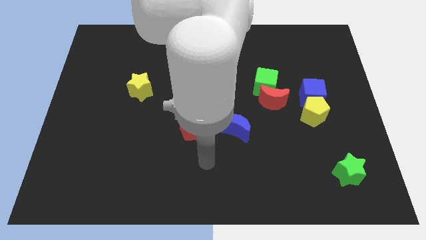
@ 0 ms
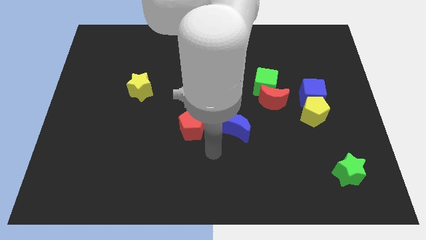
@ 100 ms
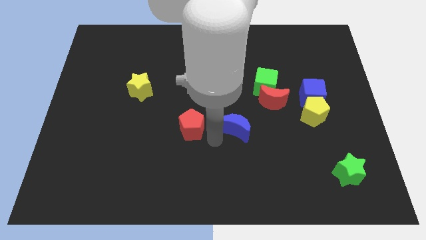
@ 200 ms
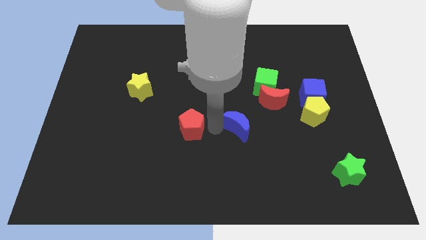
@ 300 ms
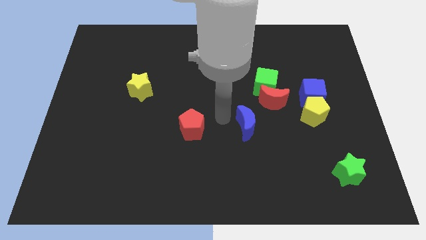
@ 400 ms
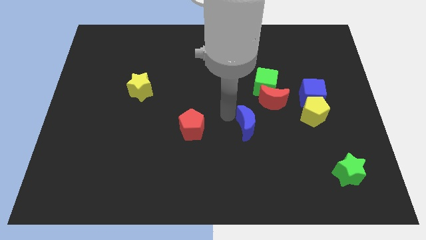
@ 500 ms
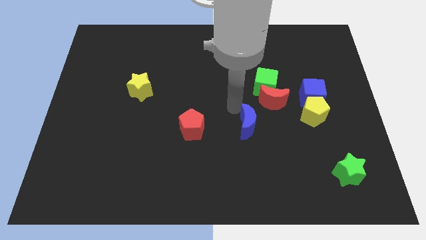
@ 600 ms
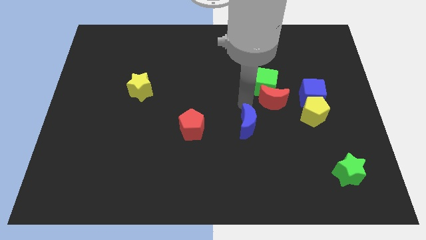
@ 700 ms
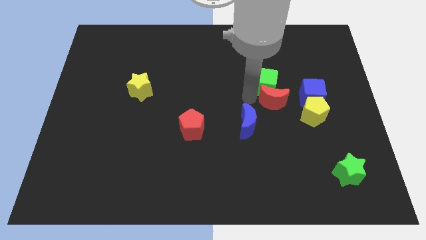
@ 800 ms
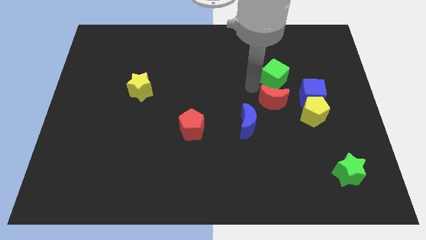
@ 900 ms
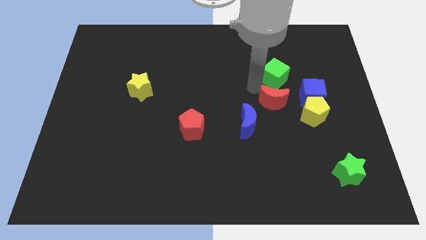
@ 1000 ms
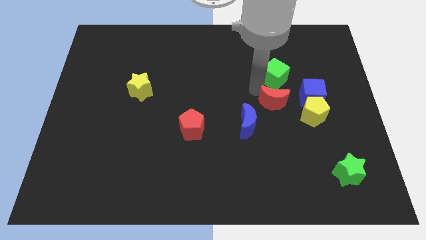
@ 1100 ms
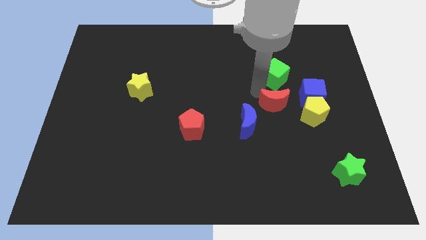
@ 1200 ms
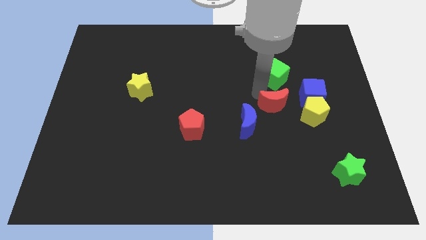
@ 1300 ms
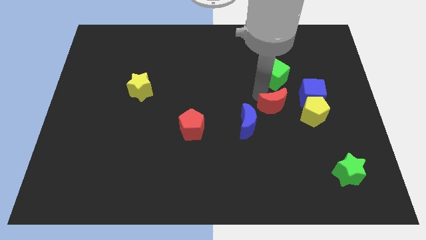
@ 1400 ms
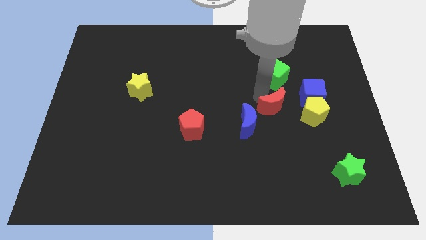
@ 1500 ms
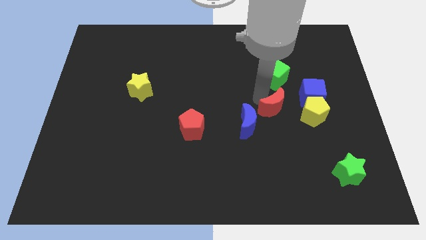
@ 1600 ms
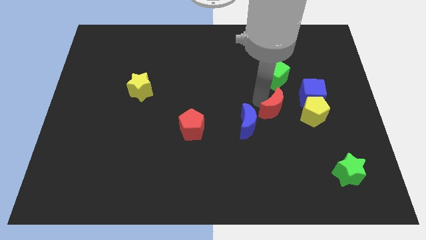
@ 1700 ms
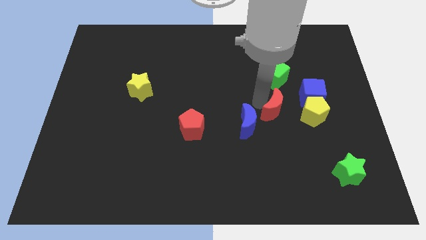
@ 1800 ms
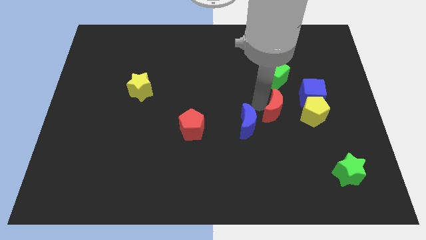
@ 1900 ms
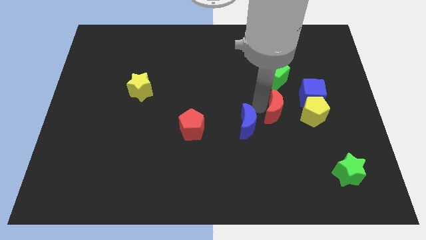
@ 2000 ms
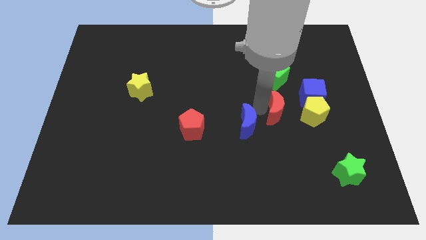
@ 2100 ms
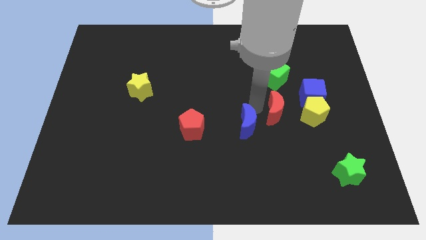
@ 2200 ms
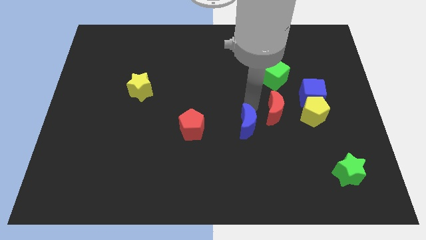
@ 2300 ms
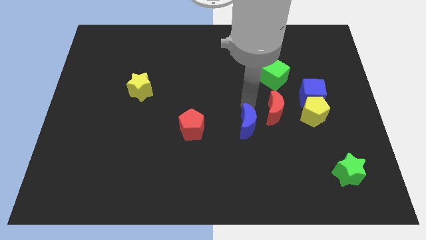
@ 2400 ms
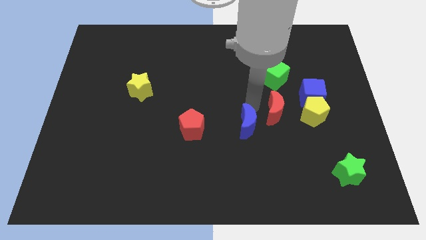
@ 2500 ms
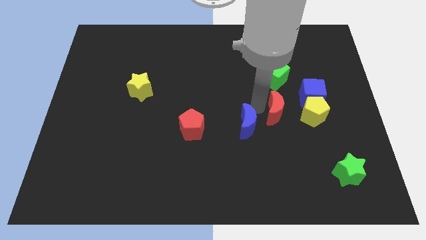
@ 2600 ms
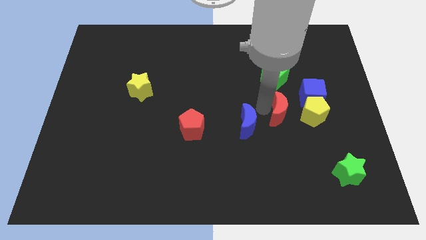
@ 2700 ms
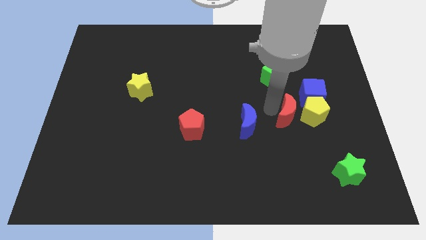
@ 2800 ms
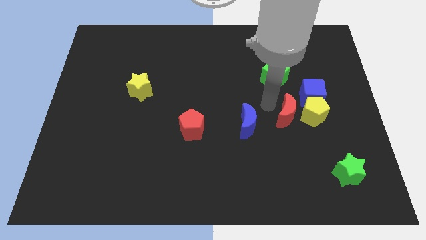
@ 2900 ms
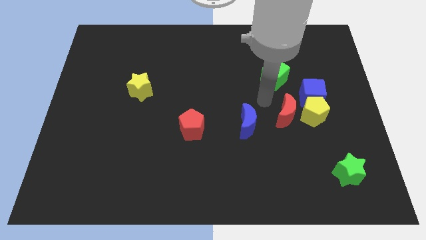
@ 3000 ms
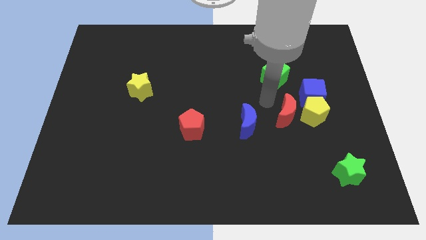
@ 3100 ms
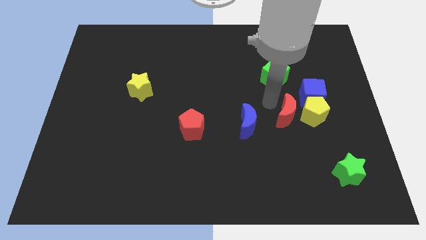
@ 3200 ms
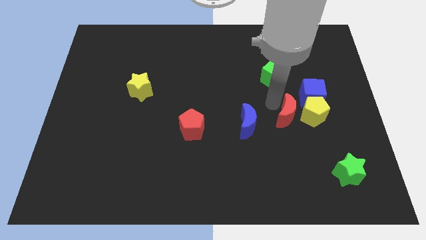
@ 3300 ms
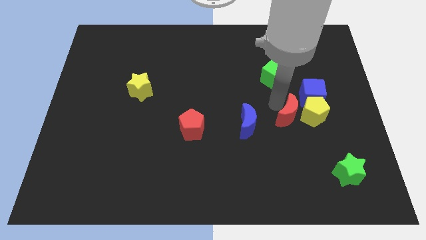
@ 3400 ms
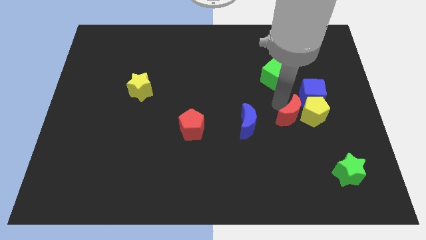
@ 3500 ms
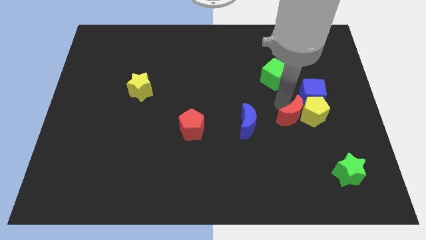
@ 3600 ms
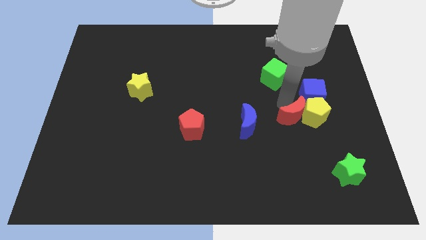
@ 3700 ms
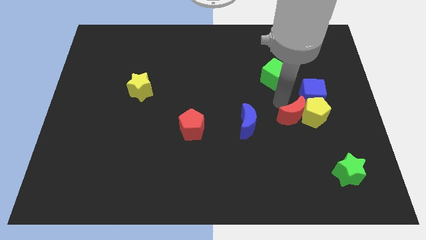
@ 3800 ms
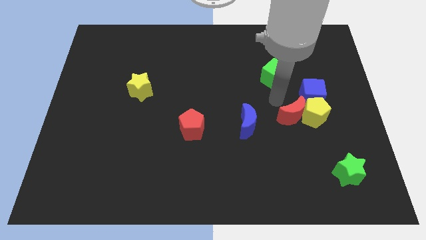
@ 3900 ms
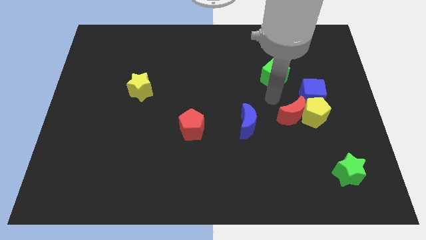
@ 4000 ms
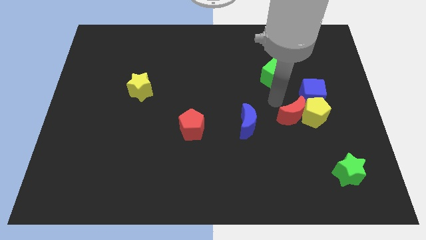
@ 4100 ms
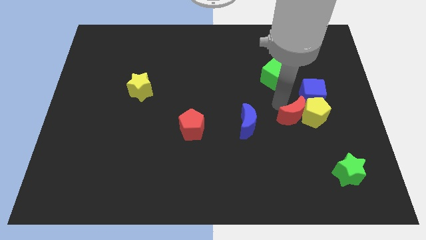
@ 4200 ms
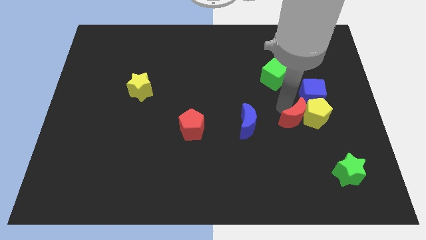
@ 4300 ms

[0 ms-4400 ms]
slightly move the red moon down and then to the right

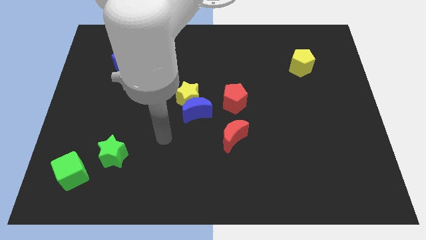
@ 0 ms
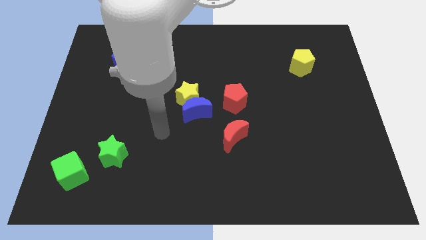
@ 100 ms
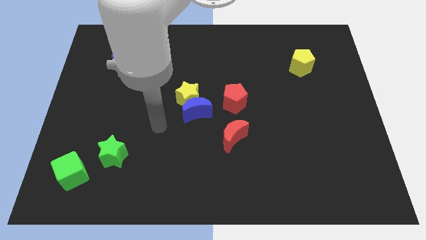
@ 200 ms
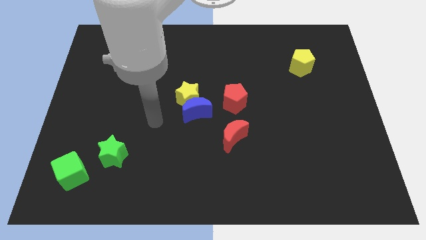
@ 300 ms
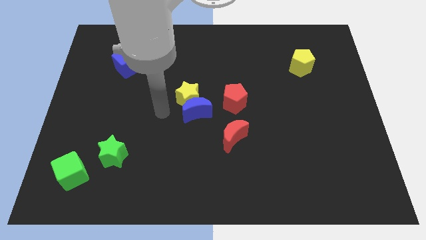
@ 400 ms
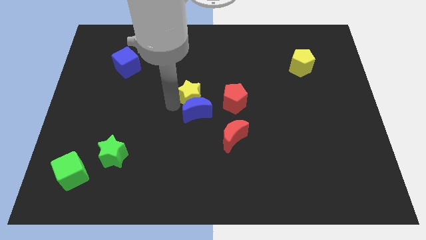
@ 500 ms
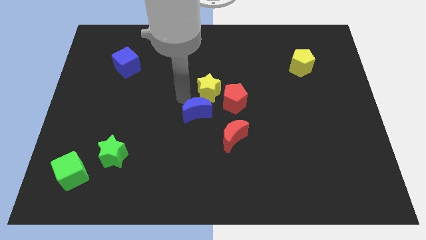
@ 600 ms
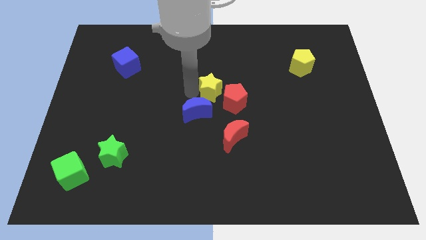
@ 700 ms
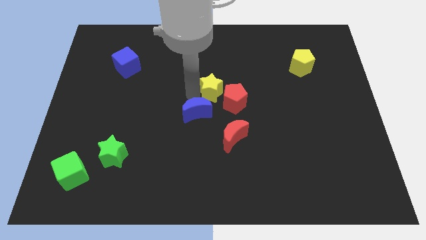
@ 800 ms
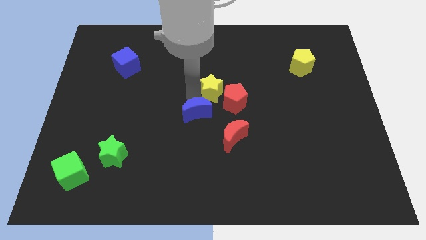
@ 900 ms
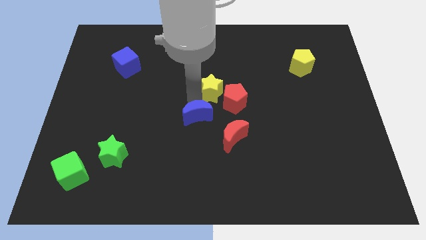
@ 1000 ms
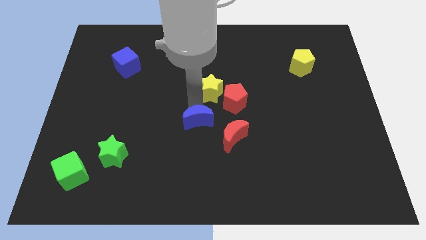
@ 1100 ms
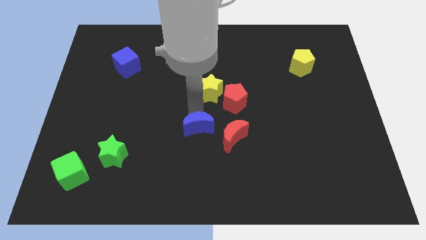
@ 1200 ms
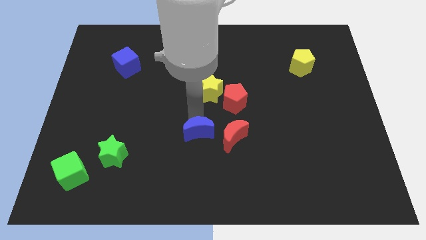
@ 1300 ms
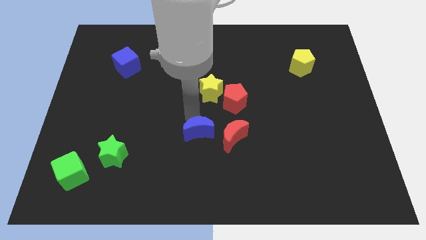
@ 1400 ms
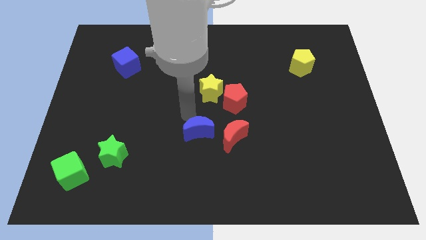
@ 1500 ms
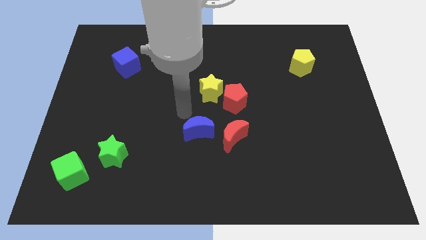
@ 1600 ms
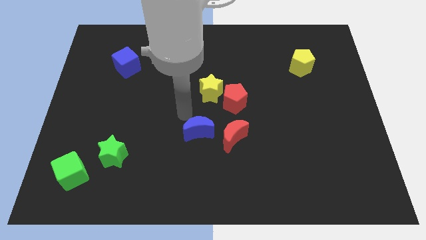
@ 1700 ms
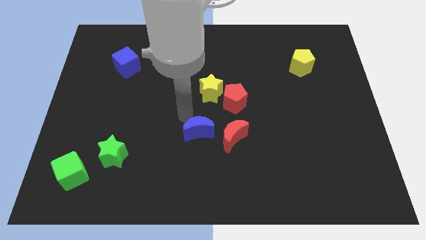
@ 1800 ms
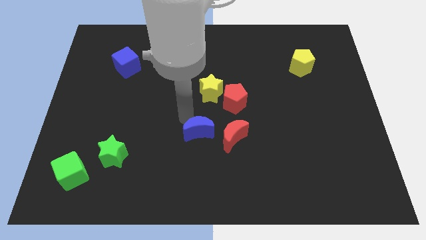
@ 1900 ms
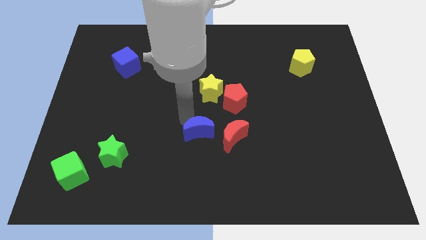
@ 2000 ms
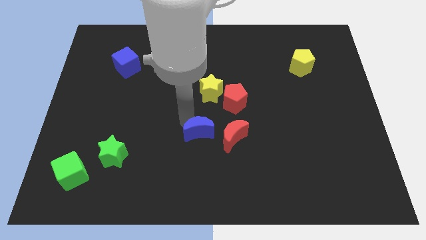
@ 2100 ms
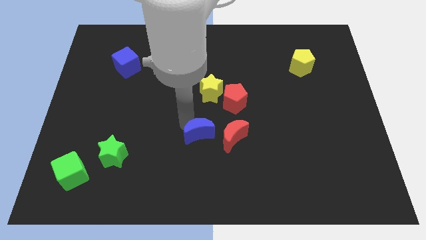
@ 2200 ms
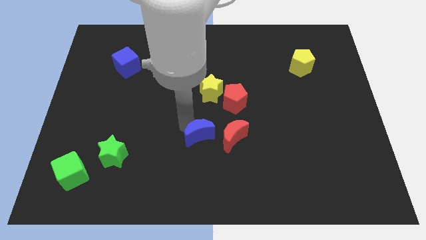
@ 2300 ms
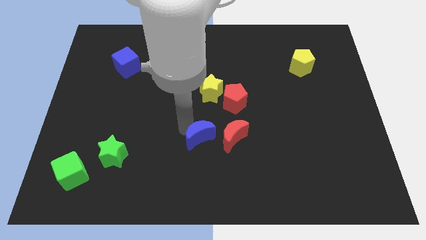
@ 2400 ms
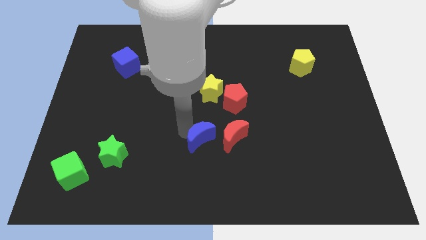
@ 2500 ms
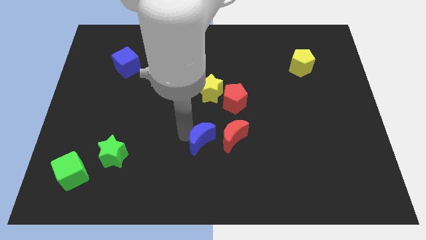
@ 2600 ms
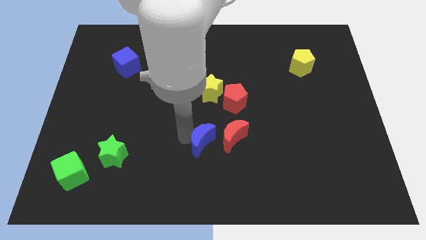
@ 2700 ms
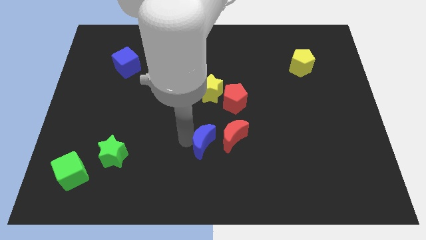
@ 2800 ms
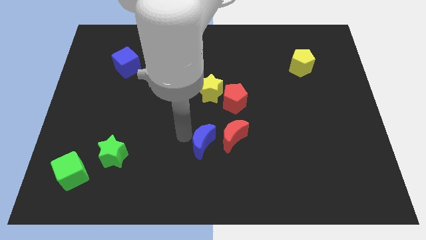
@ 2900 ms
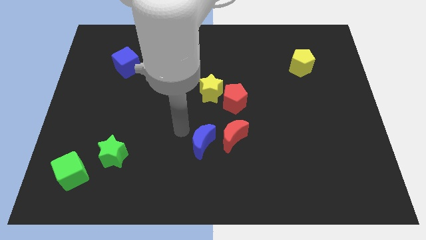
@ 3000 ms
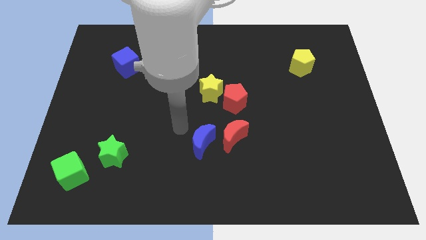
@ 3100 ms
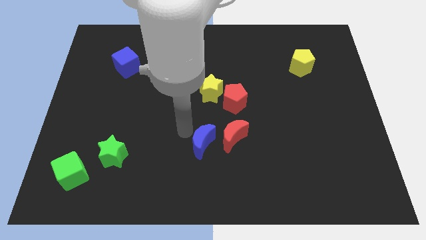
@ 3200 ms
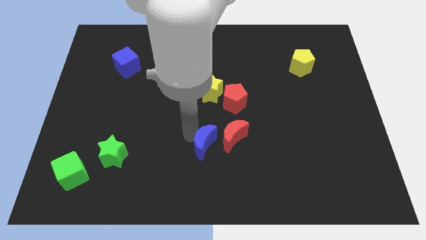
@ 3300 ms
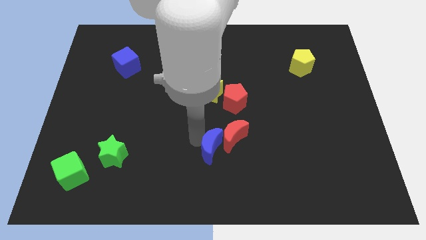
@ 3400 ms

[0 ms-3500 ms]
move the blue moon somewhat downwards and then to the right

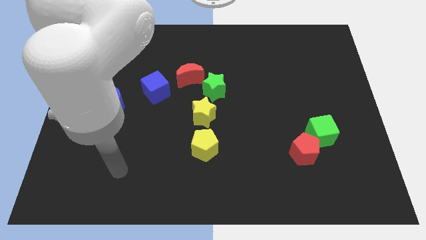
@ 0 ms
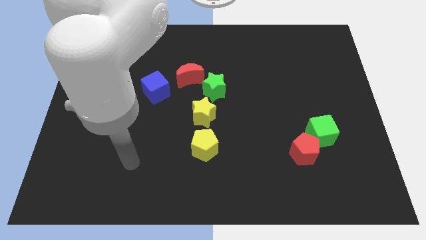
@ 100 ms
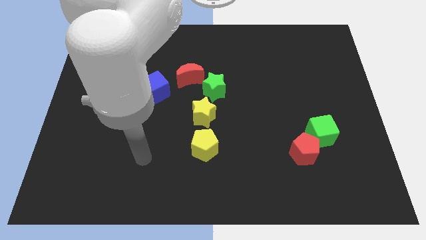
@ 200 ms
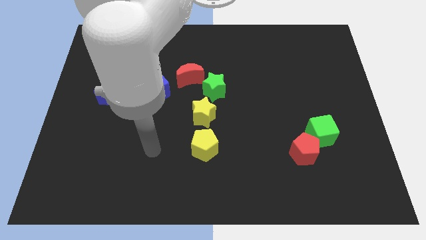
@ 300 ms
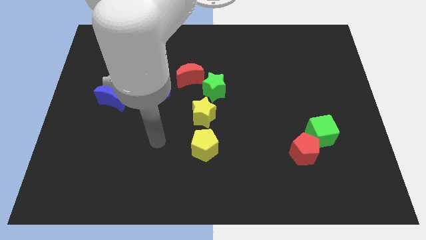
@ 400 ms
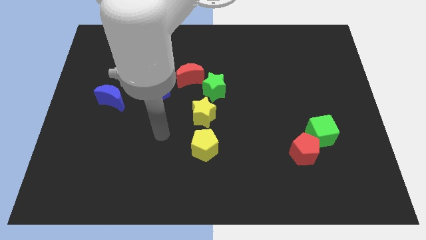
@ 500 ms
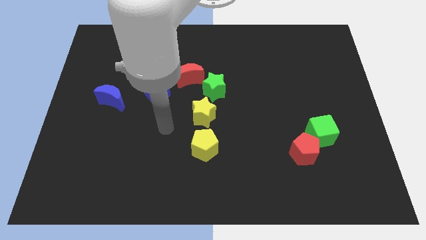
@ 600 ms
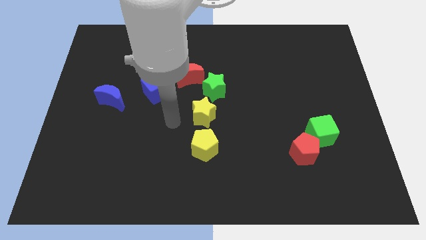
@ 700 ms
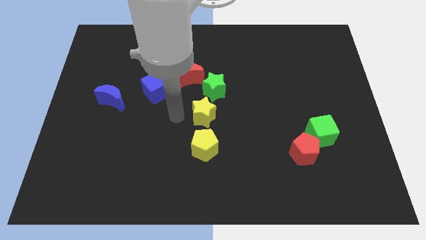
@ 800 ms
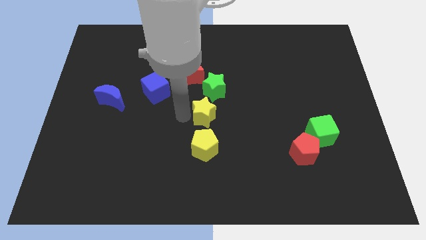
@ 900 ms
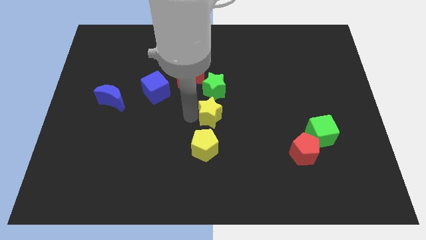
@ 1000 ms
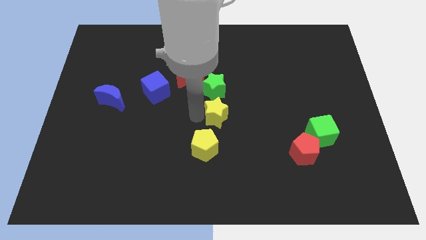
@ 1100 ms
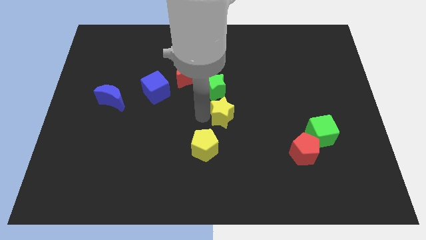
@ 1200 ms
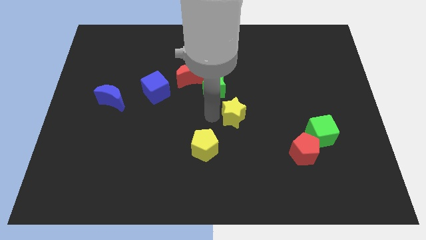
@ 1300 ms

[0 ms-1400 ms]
push the yellow star a little to the right
